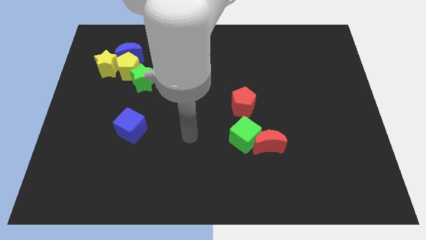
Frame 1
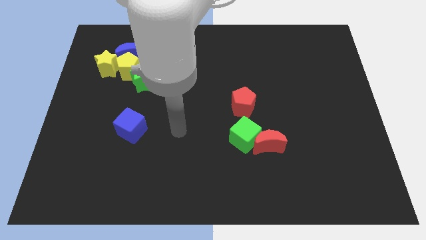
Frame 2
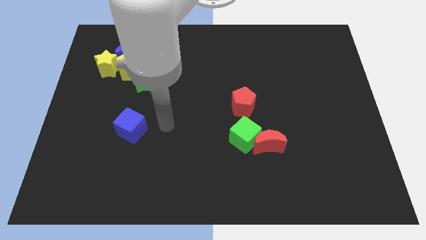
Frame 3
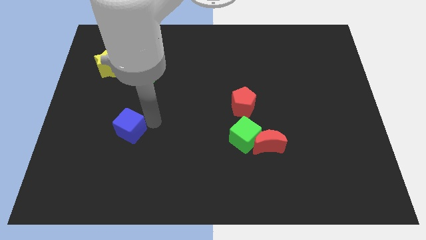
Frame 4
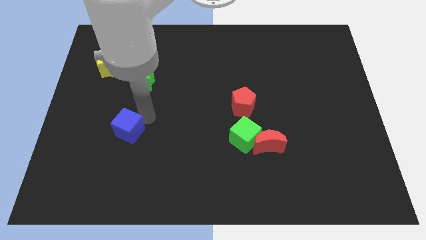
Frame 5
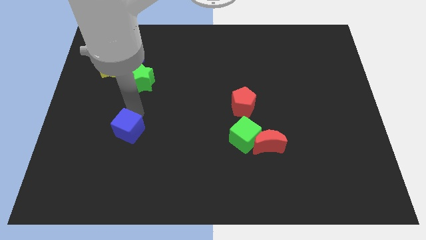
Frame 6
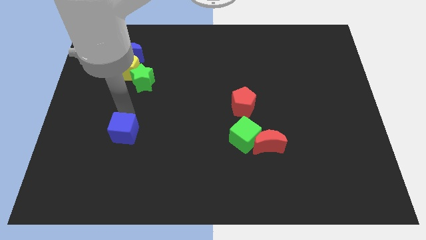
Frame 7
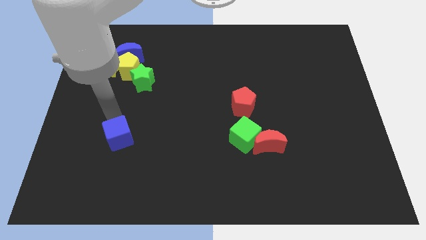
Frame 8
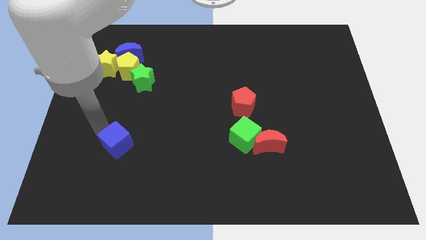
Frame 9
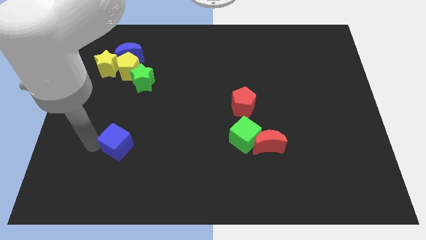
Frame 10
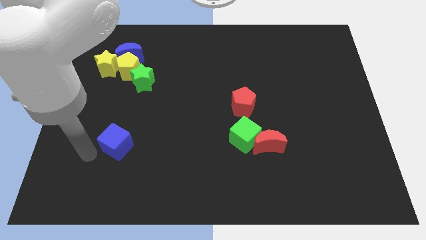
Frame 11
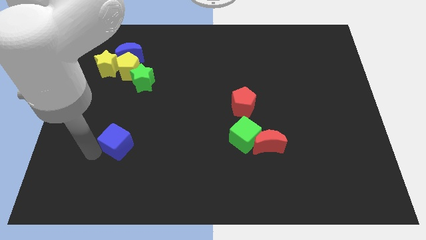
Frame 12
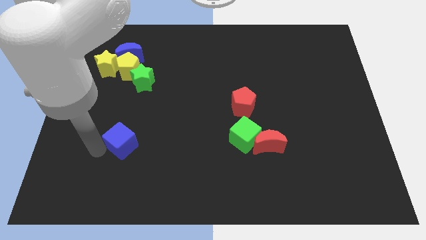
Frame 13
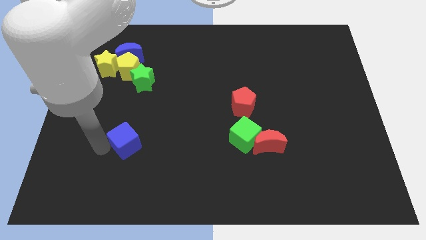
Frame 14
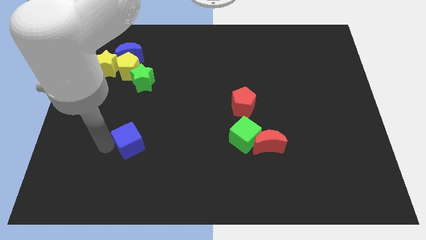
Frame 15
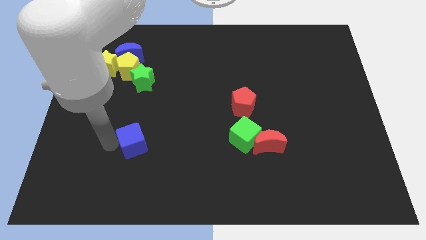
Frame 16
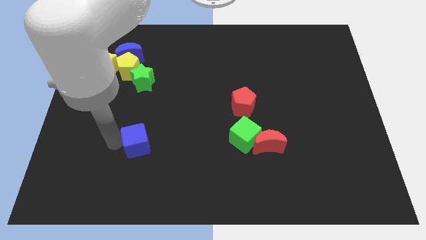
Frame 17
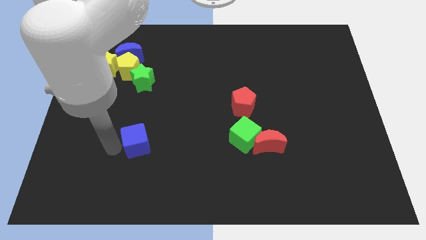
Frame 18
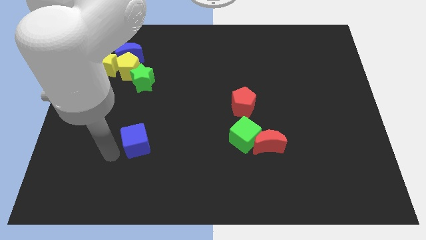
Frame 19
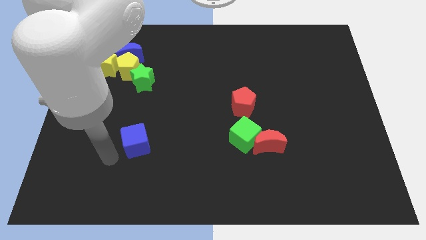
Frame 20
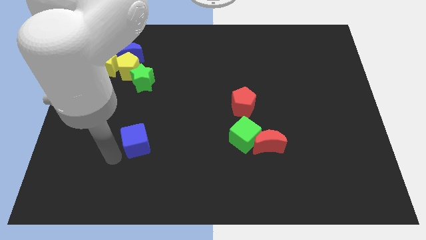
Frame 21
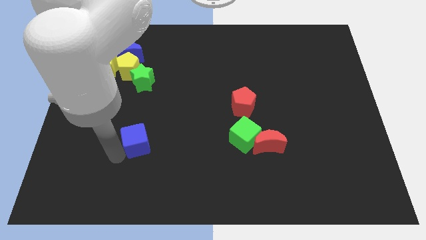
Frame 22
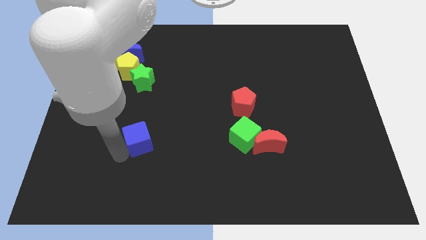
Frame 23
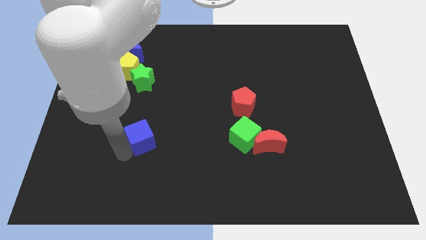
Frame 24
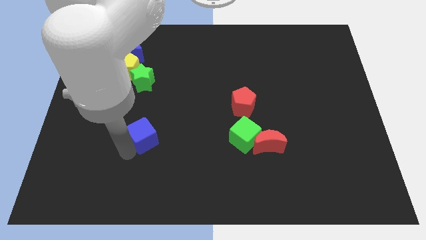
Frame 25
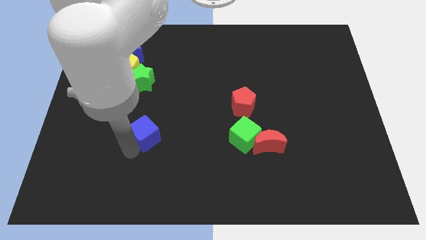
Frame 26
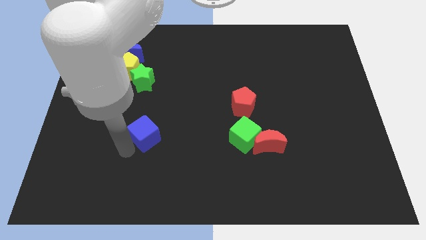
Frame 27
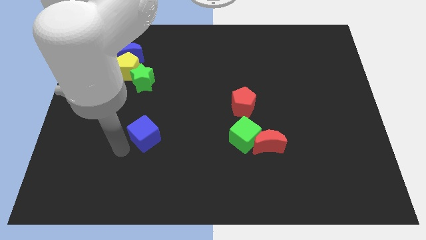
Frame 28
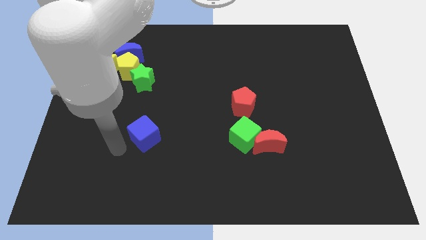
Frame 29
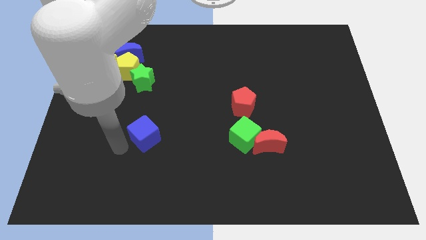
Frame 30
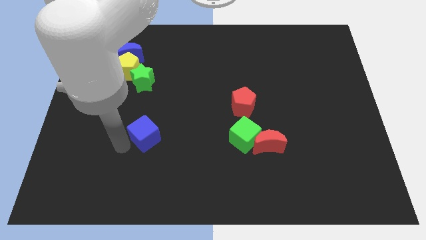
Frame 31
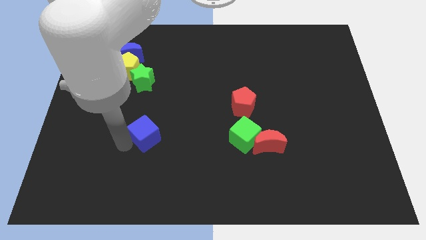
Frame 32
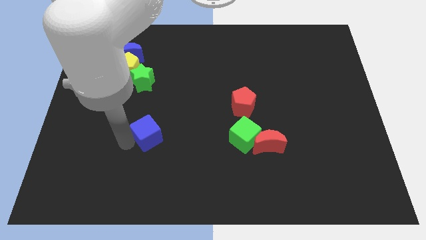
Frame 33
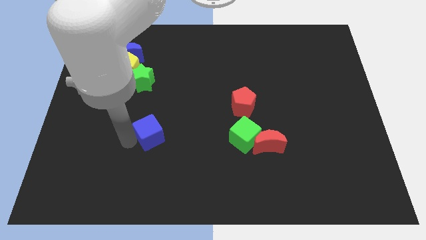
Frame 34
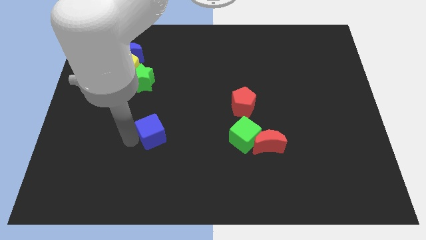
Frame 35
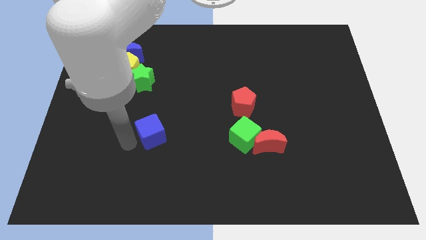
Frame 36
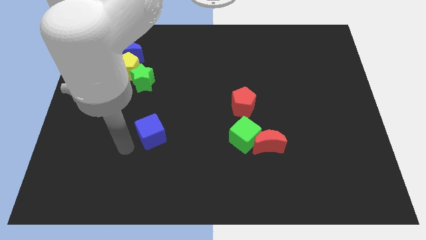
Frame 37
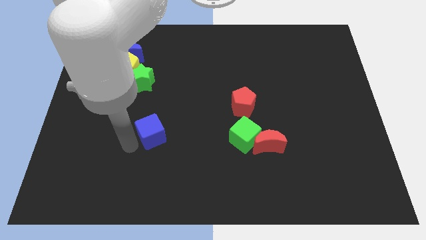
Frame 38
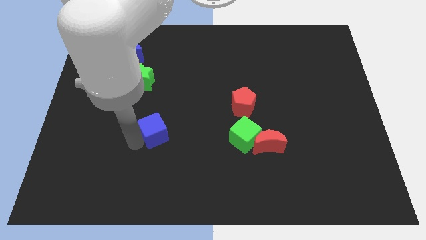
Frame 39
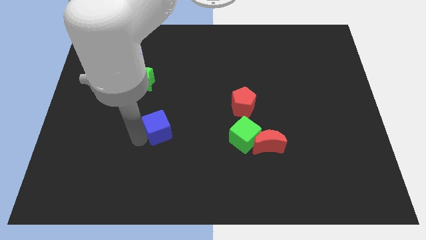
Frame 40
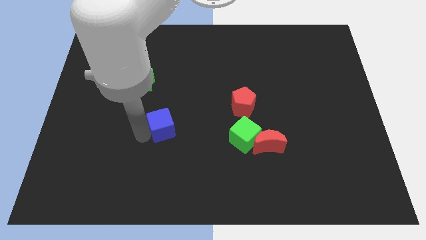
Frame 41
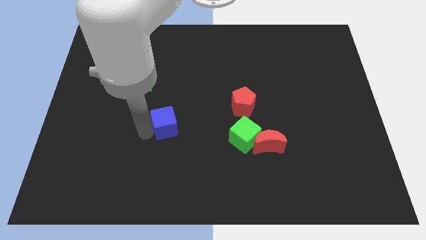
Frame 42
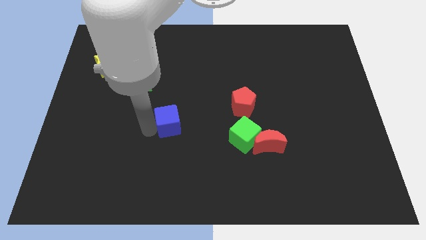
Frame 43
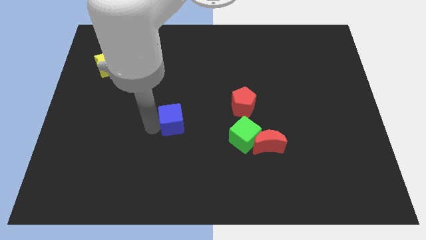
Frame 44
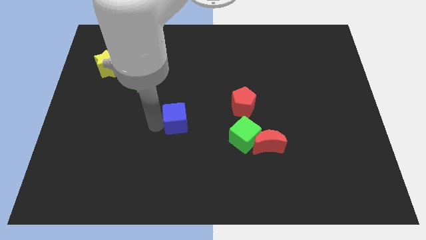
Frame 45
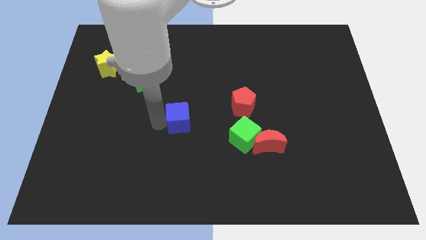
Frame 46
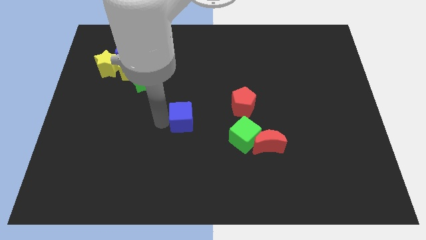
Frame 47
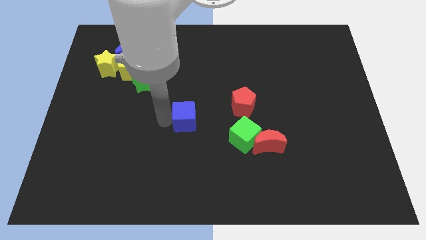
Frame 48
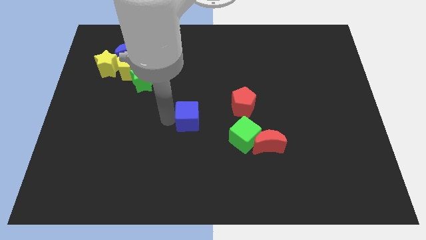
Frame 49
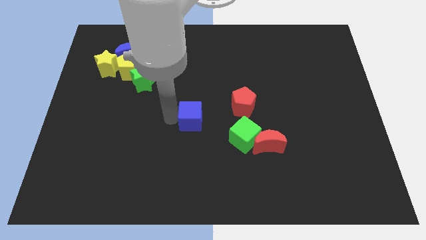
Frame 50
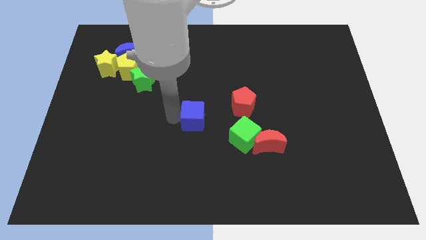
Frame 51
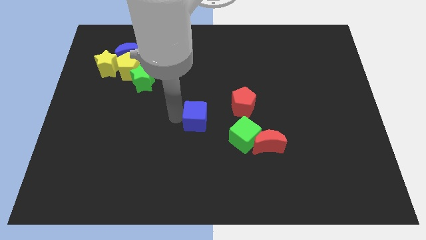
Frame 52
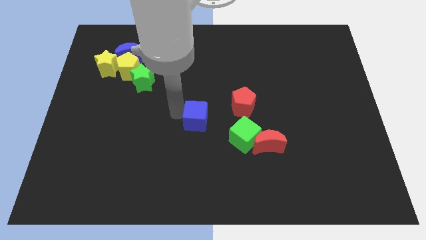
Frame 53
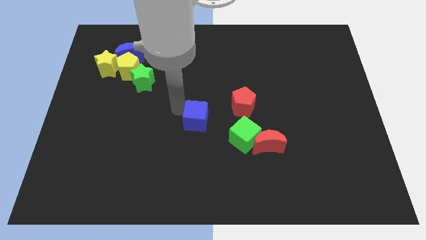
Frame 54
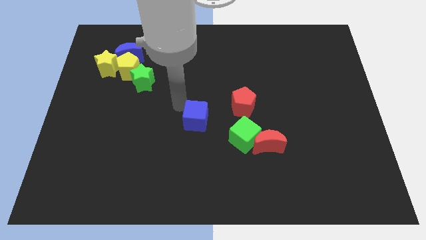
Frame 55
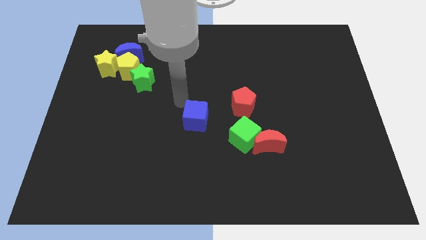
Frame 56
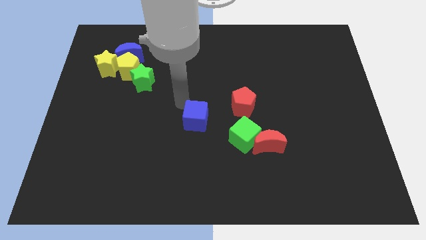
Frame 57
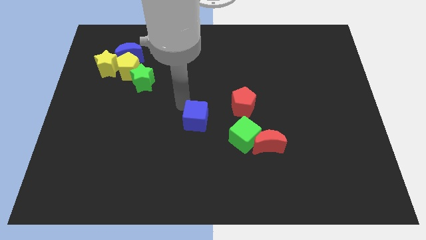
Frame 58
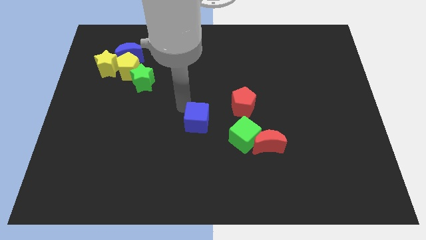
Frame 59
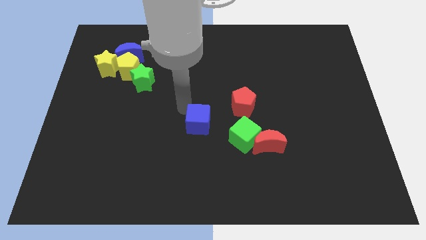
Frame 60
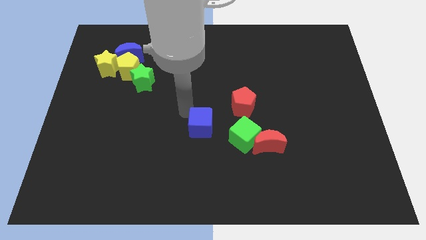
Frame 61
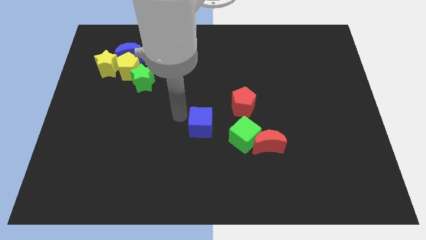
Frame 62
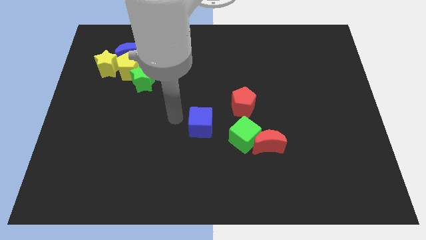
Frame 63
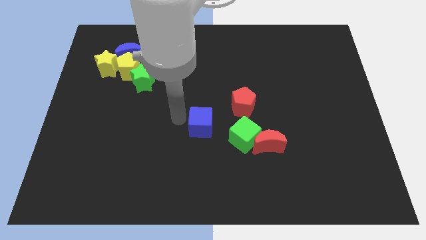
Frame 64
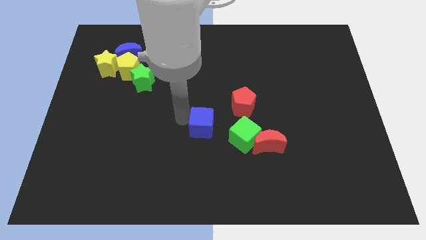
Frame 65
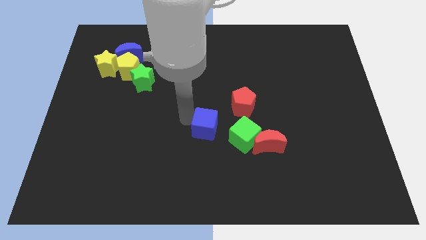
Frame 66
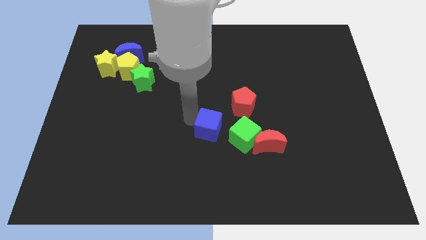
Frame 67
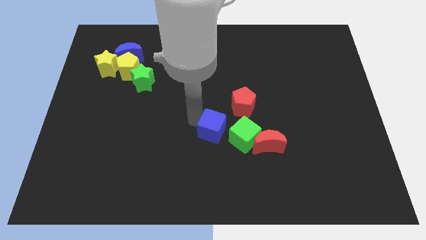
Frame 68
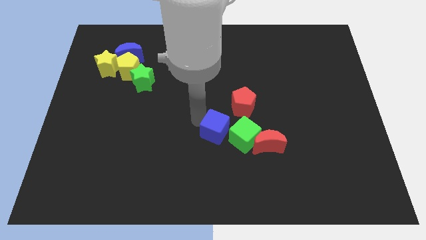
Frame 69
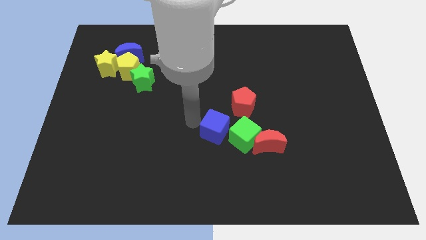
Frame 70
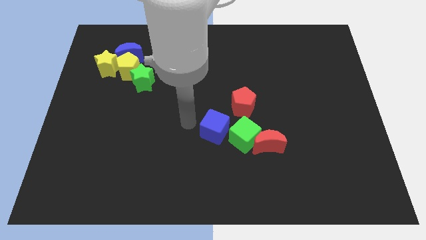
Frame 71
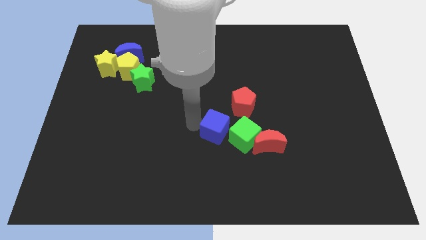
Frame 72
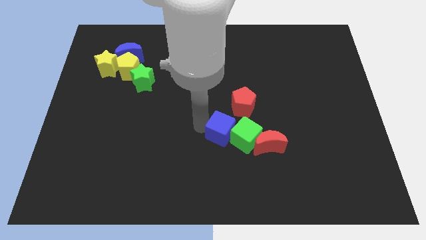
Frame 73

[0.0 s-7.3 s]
slide the blue cube towards the green cube

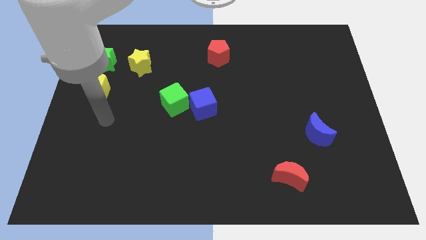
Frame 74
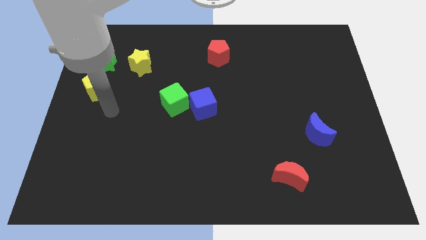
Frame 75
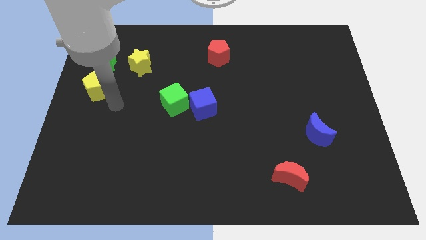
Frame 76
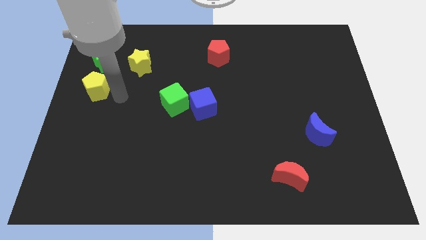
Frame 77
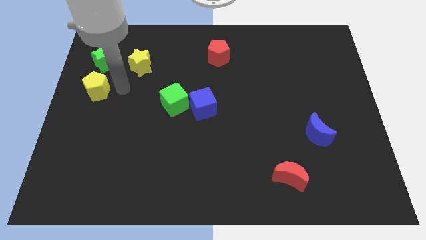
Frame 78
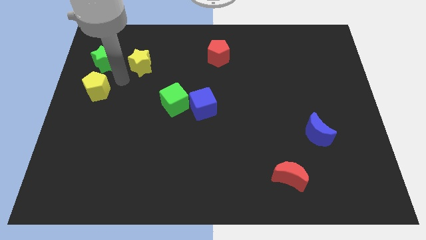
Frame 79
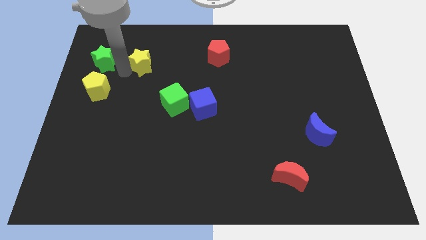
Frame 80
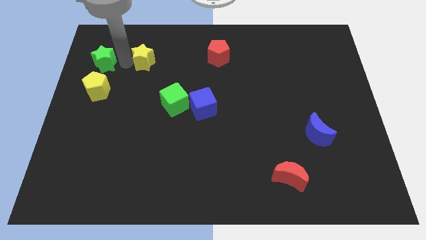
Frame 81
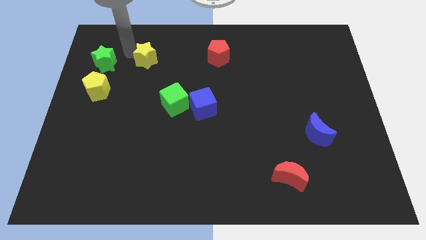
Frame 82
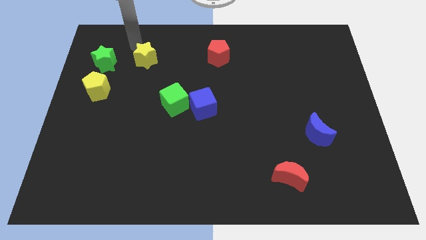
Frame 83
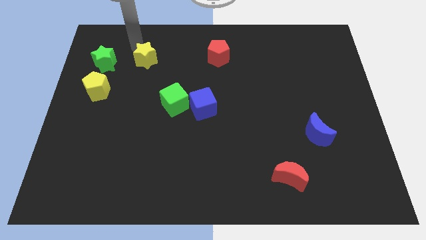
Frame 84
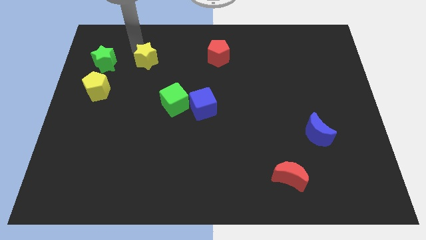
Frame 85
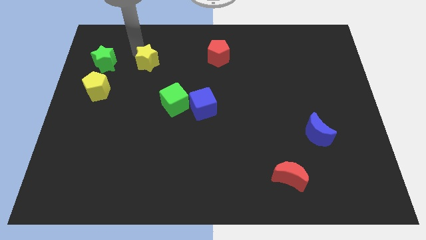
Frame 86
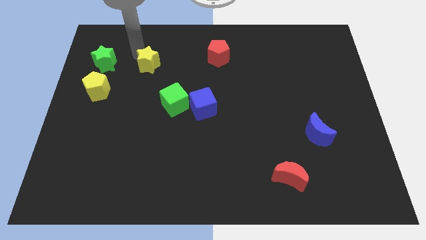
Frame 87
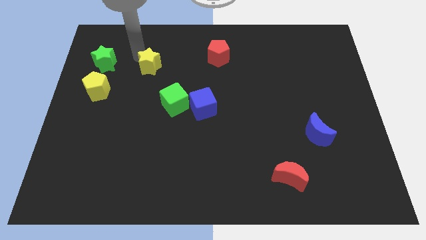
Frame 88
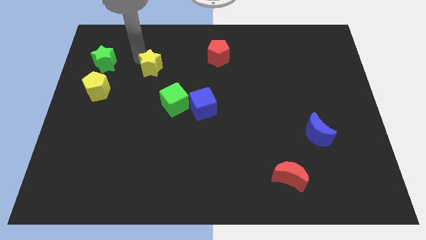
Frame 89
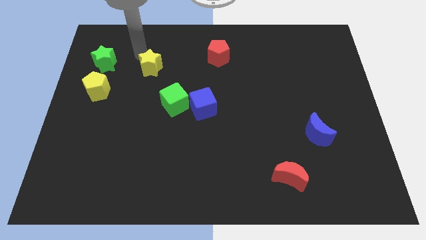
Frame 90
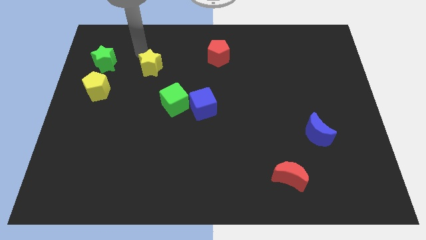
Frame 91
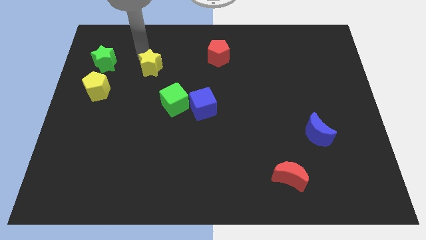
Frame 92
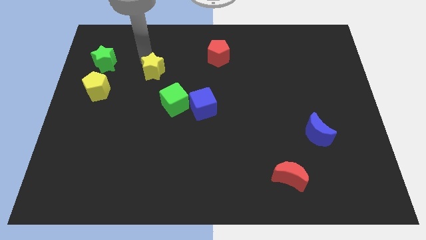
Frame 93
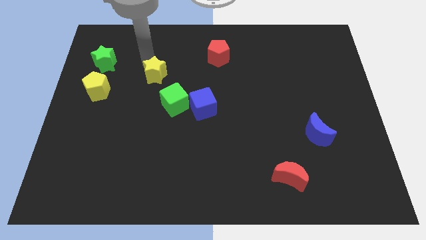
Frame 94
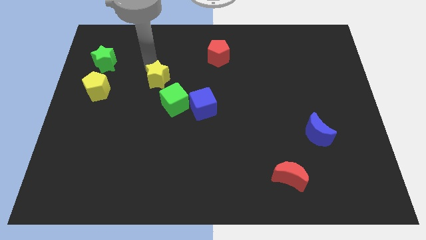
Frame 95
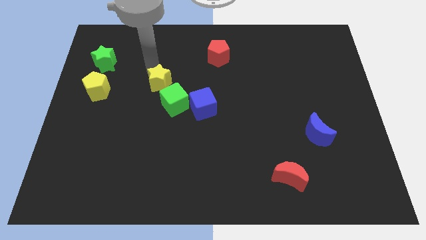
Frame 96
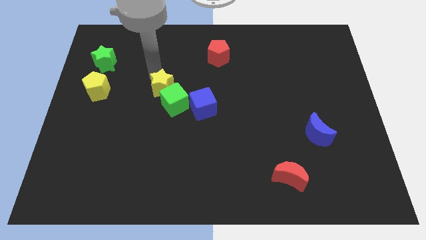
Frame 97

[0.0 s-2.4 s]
push the yellow star next to the green cube
